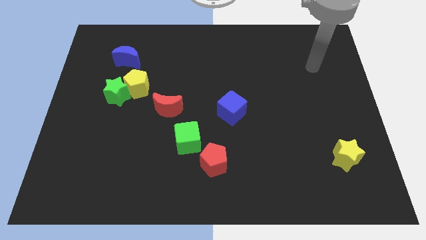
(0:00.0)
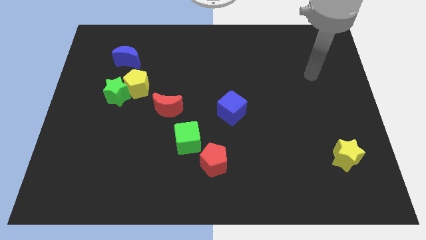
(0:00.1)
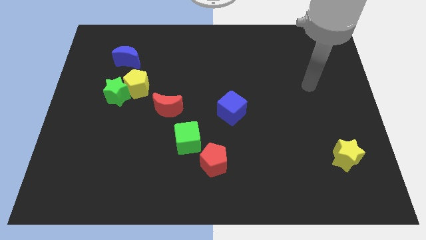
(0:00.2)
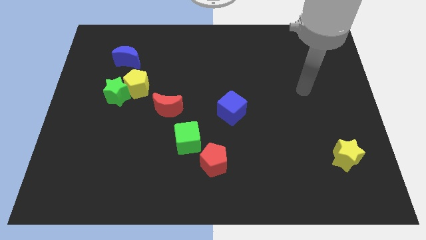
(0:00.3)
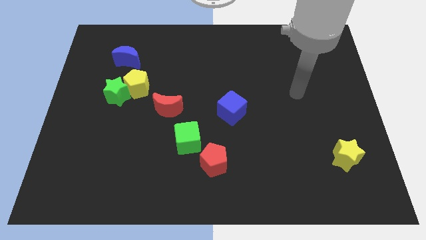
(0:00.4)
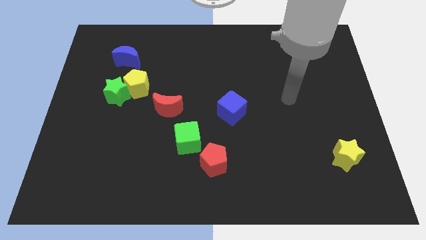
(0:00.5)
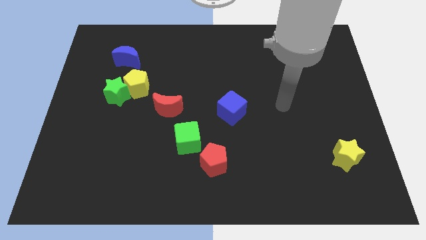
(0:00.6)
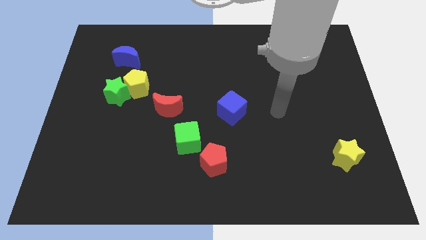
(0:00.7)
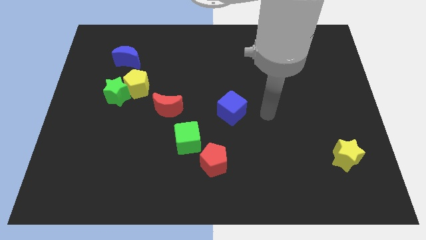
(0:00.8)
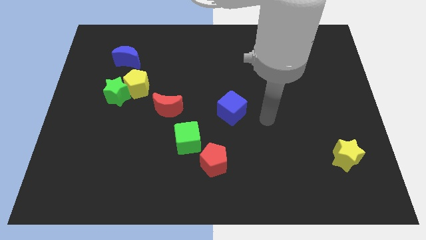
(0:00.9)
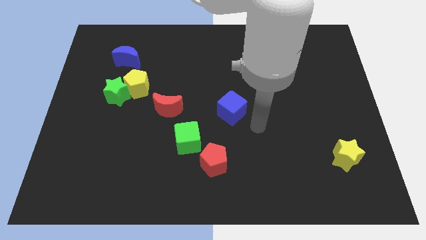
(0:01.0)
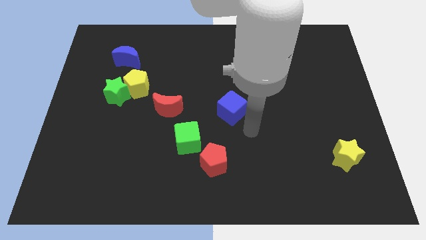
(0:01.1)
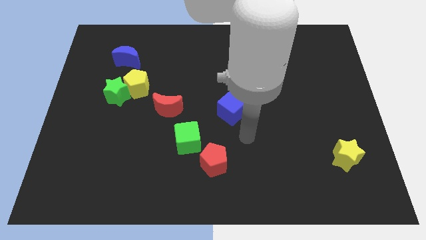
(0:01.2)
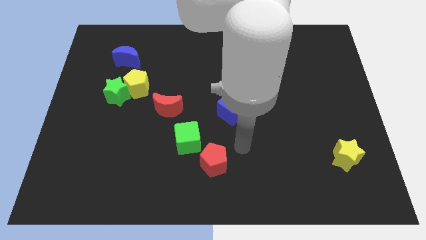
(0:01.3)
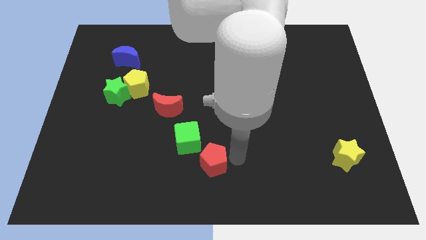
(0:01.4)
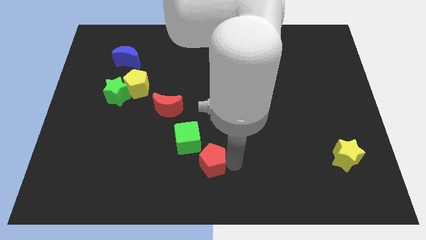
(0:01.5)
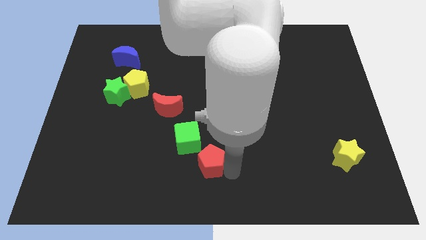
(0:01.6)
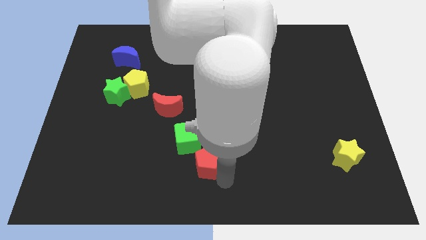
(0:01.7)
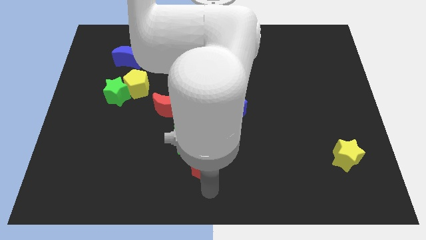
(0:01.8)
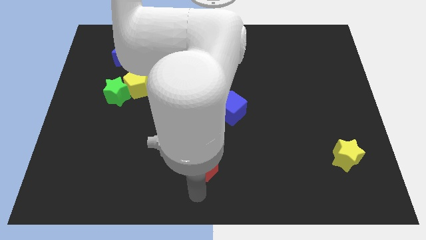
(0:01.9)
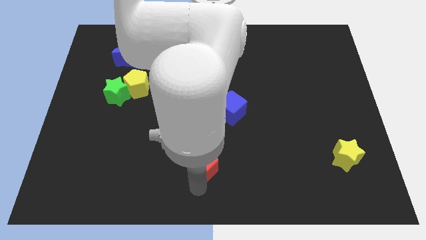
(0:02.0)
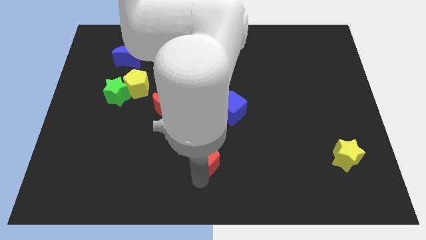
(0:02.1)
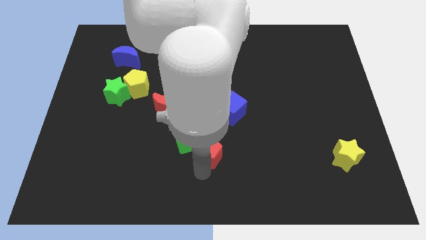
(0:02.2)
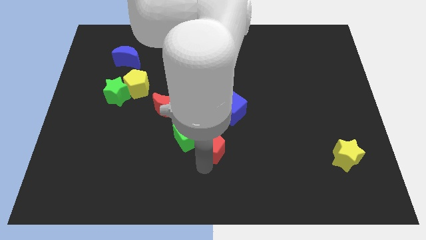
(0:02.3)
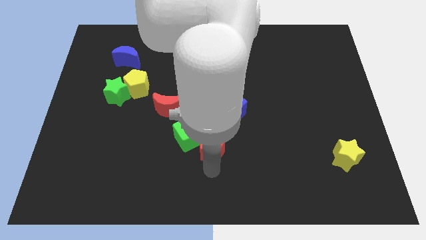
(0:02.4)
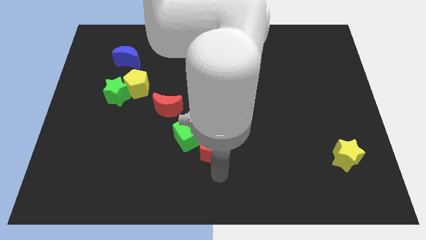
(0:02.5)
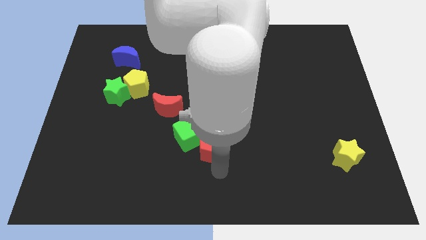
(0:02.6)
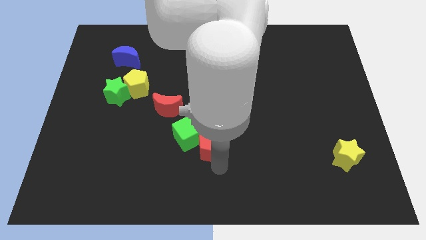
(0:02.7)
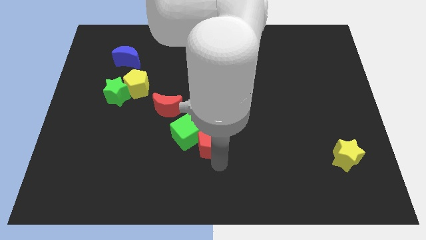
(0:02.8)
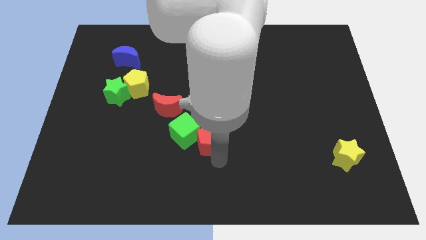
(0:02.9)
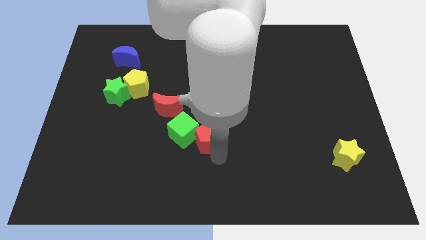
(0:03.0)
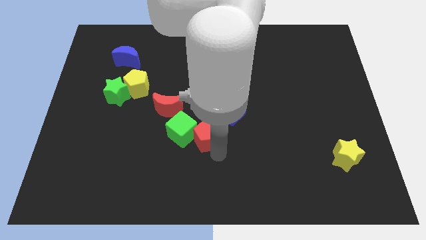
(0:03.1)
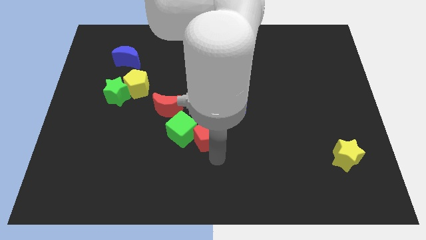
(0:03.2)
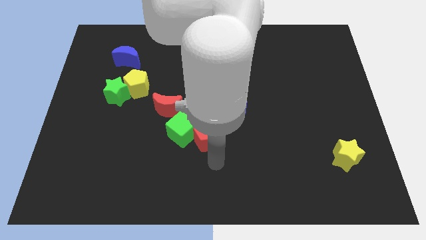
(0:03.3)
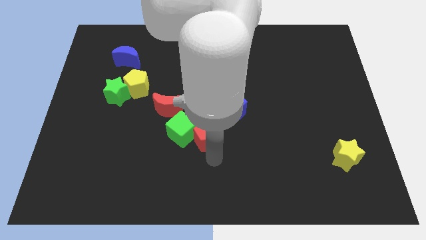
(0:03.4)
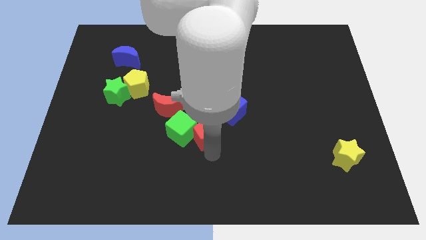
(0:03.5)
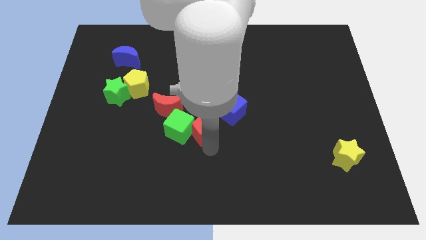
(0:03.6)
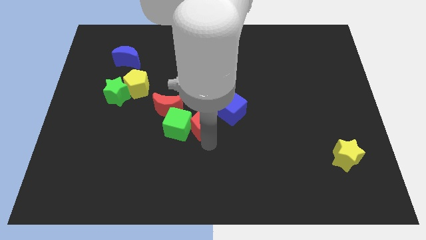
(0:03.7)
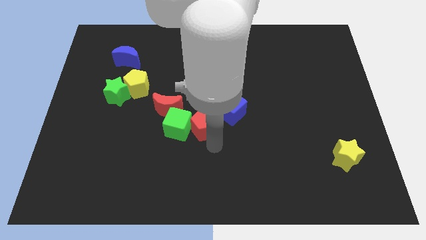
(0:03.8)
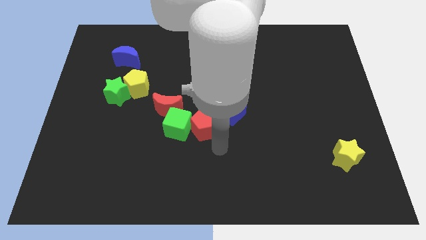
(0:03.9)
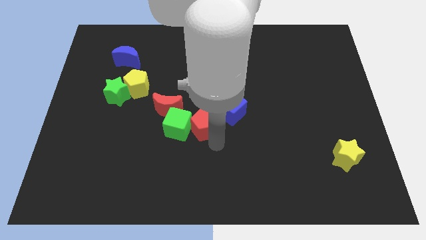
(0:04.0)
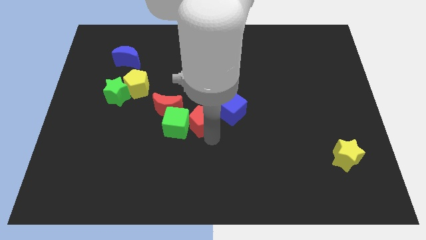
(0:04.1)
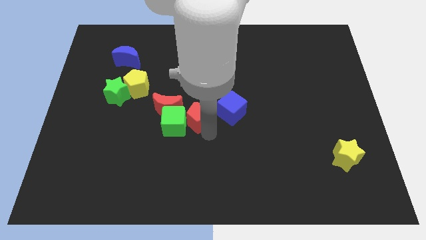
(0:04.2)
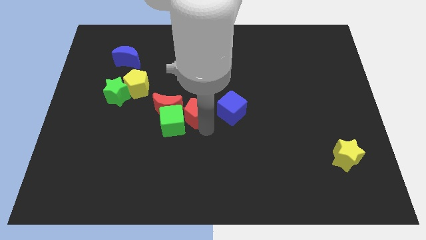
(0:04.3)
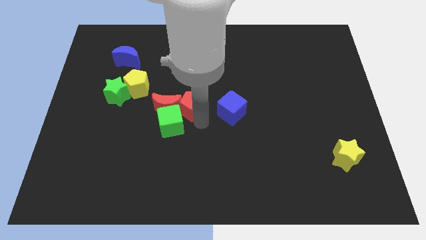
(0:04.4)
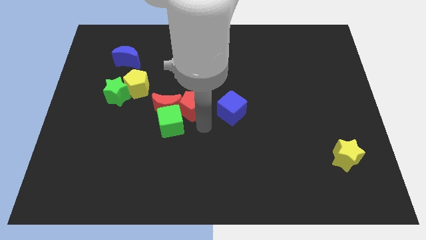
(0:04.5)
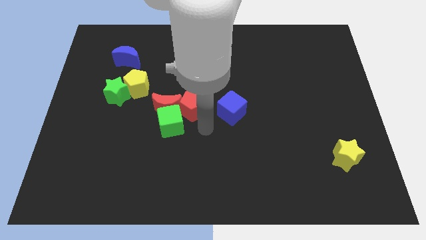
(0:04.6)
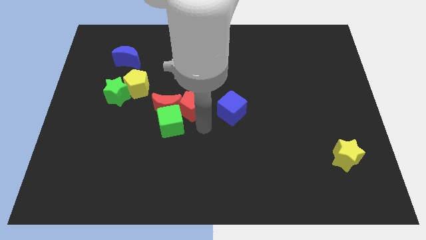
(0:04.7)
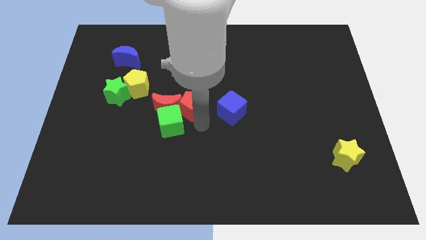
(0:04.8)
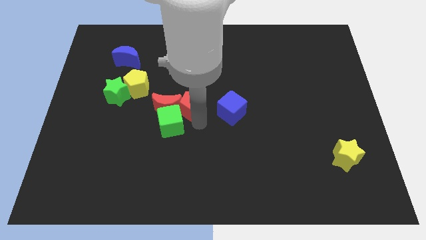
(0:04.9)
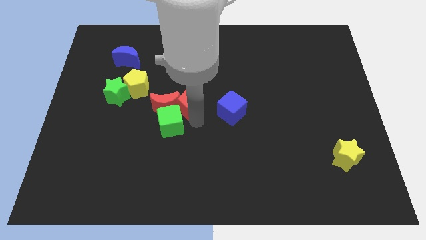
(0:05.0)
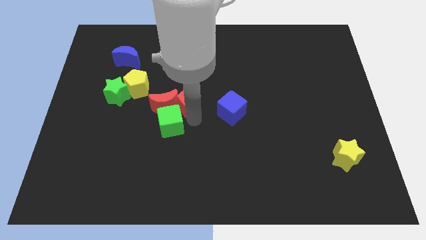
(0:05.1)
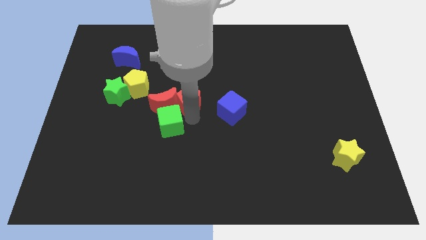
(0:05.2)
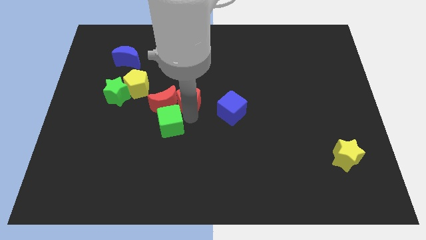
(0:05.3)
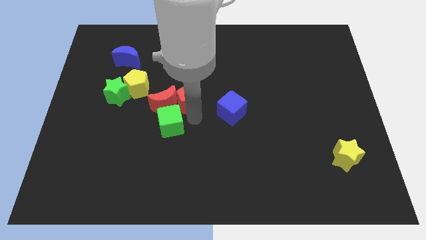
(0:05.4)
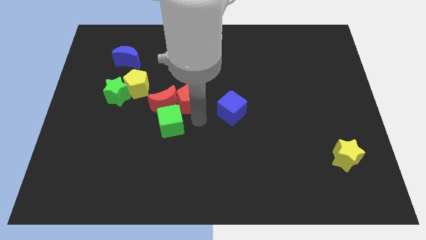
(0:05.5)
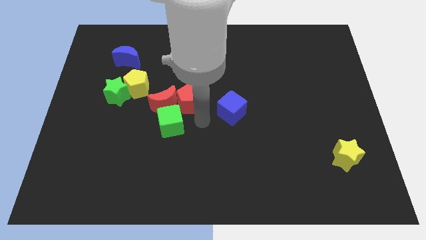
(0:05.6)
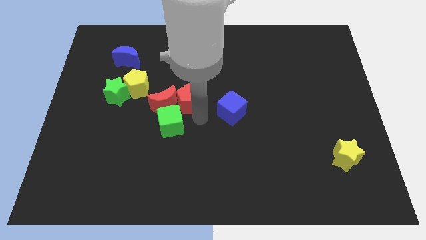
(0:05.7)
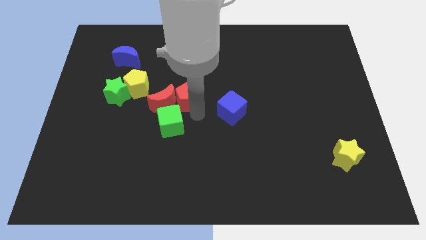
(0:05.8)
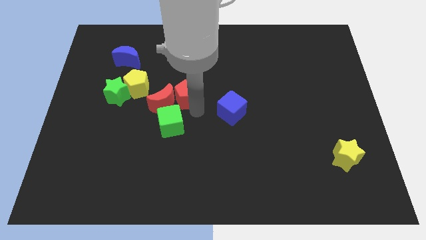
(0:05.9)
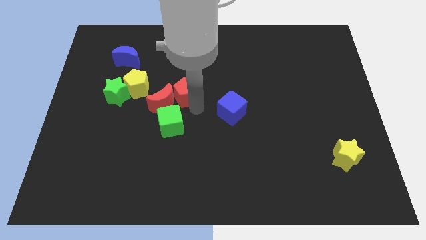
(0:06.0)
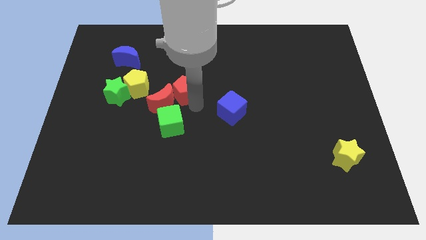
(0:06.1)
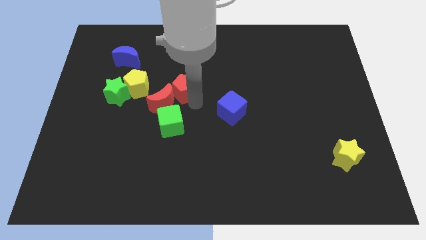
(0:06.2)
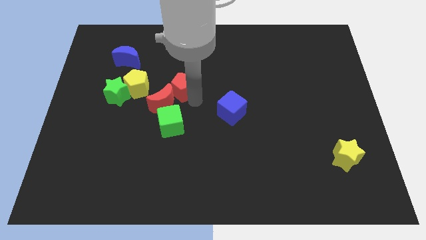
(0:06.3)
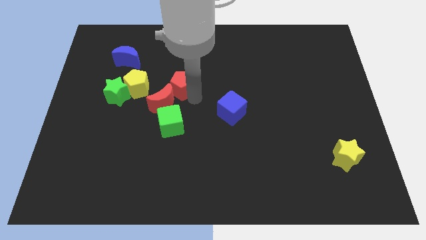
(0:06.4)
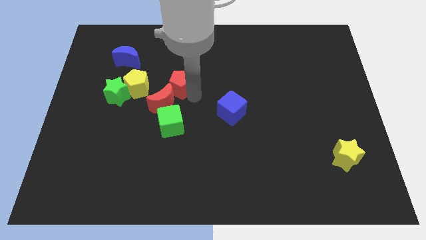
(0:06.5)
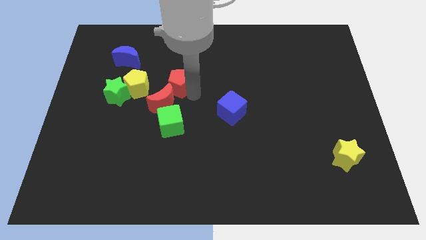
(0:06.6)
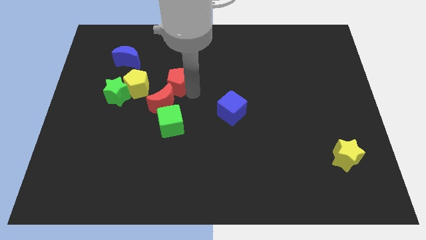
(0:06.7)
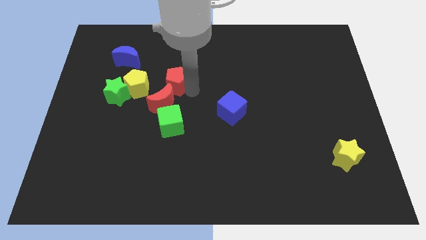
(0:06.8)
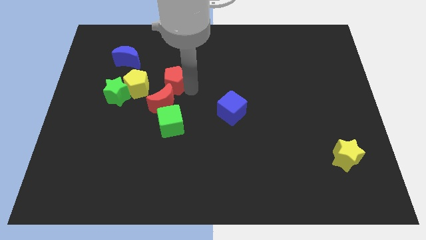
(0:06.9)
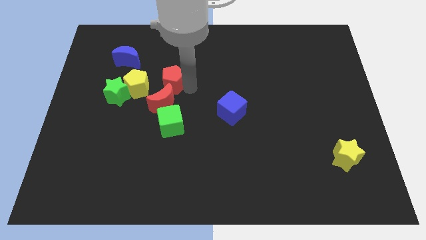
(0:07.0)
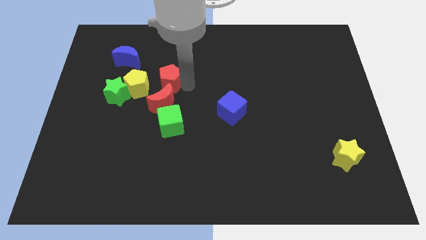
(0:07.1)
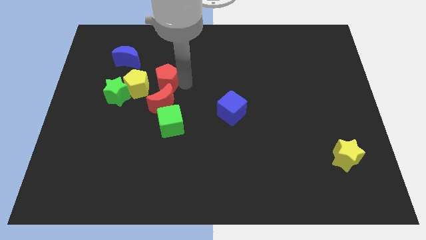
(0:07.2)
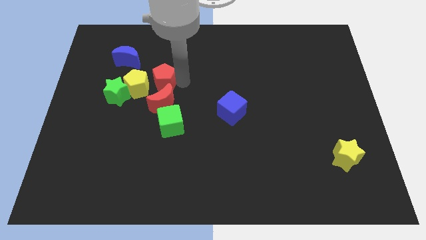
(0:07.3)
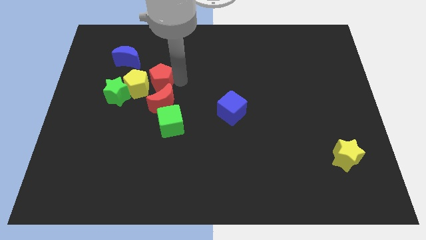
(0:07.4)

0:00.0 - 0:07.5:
slide the red pentagon close to the yellow pentagon
